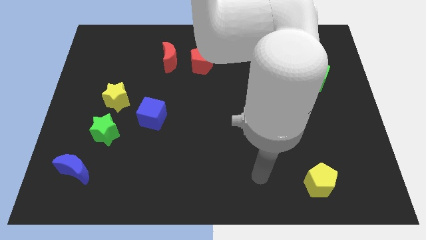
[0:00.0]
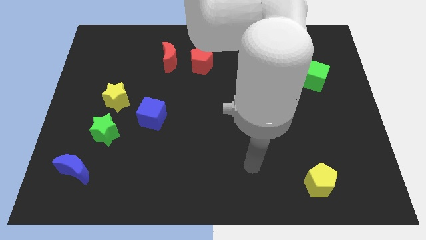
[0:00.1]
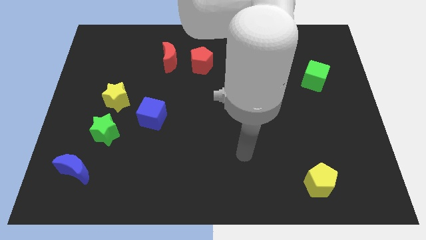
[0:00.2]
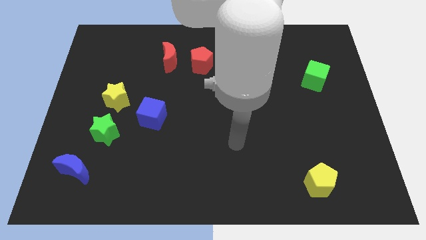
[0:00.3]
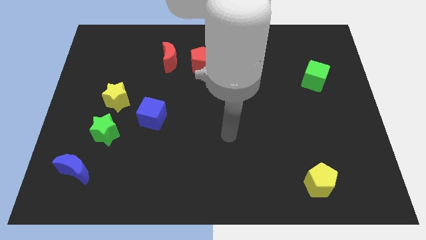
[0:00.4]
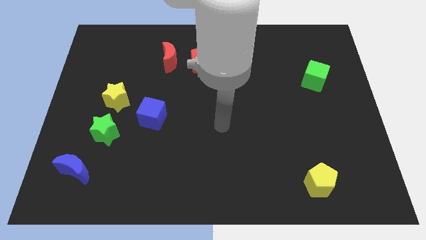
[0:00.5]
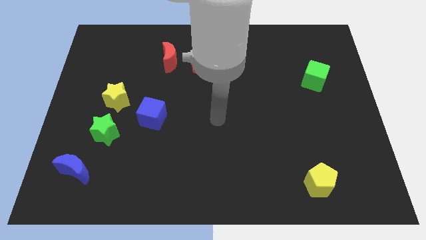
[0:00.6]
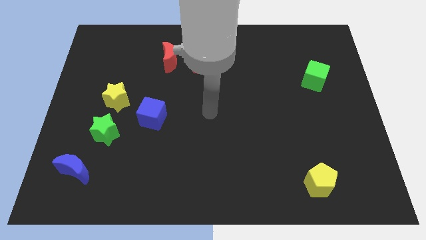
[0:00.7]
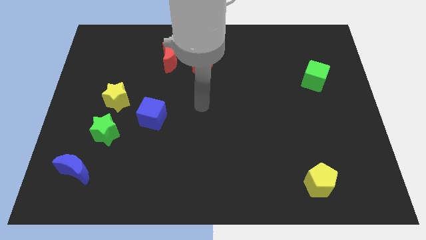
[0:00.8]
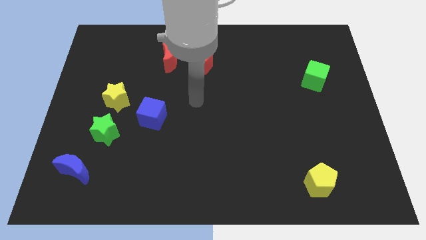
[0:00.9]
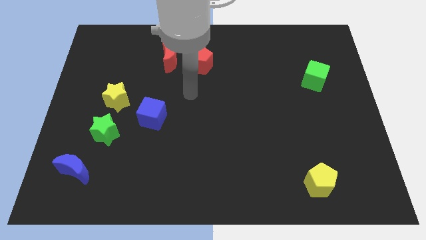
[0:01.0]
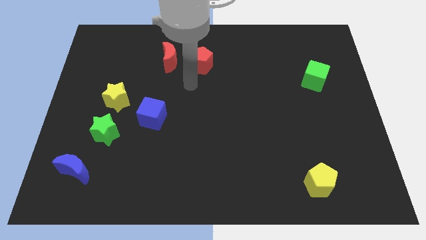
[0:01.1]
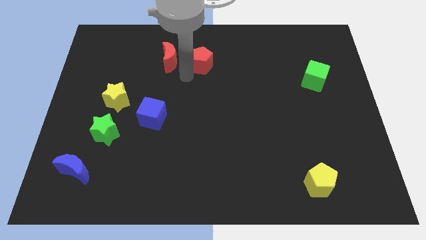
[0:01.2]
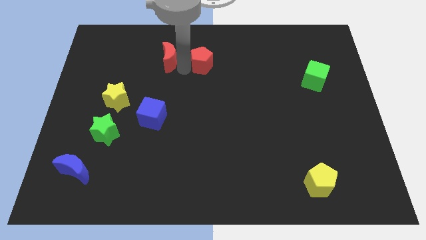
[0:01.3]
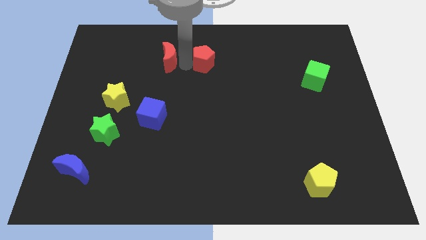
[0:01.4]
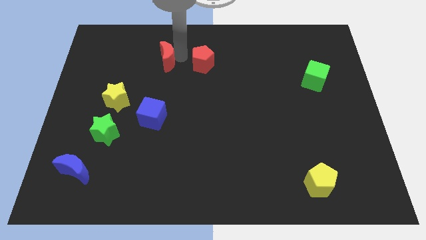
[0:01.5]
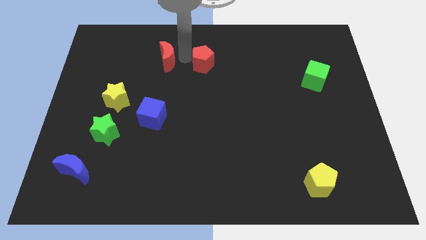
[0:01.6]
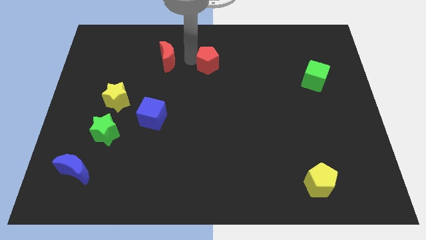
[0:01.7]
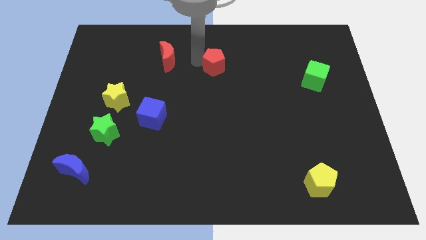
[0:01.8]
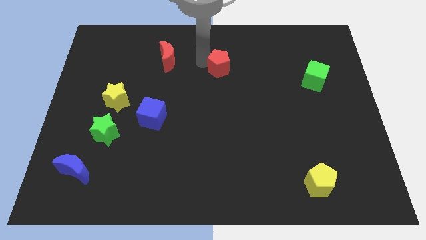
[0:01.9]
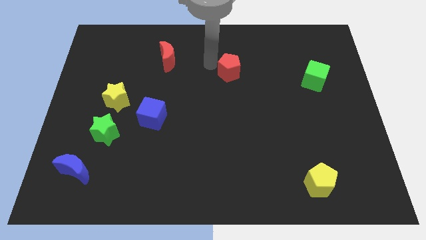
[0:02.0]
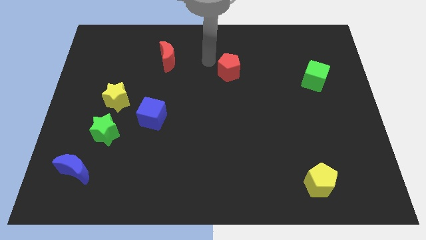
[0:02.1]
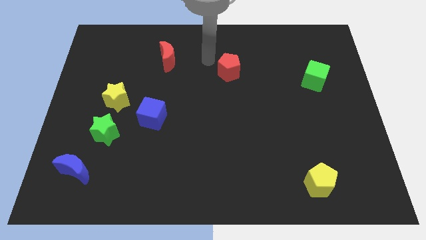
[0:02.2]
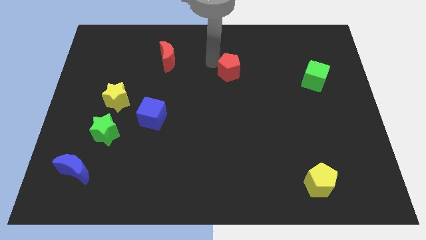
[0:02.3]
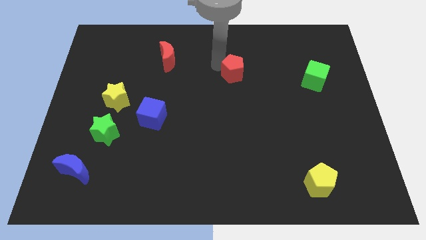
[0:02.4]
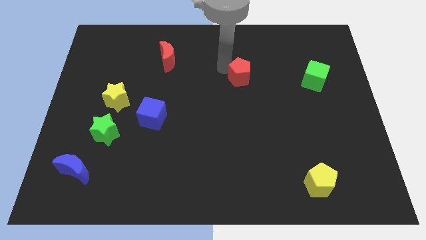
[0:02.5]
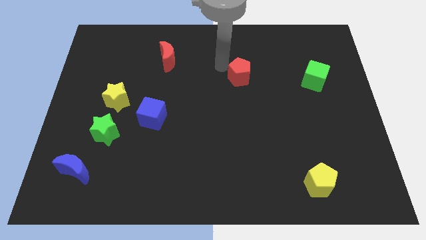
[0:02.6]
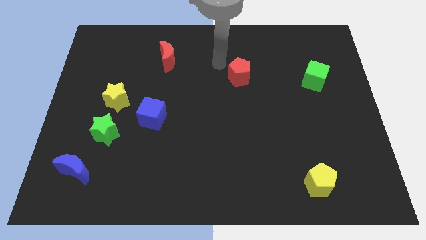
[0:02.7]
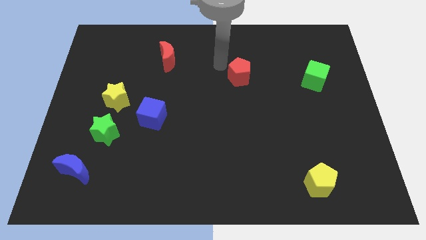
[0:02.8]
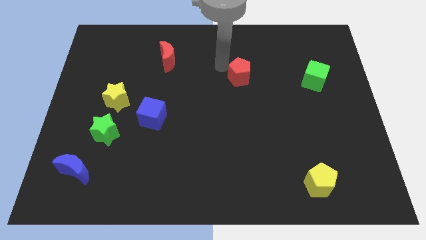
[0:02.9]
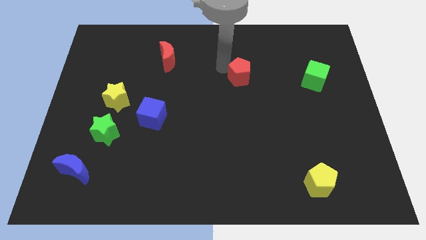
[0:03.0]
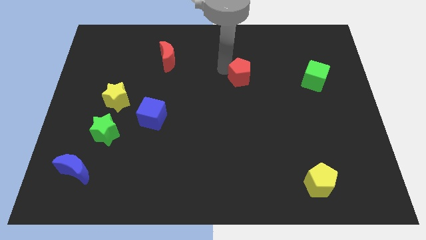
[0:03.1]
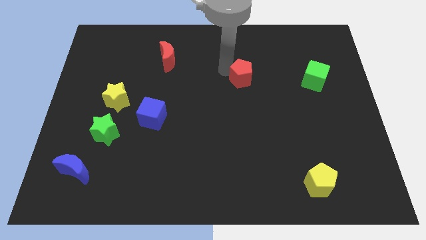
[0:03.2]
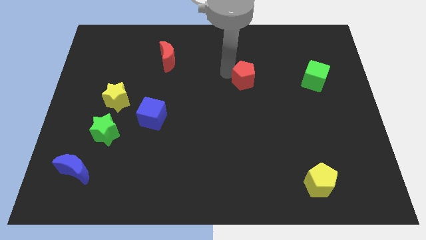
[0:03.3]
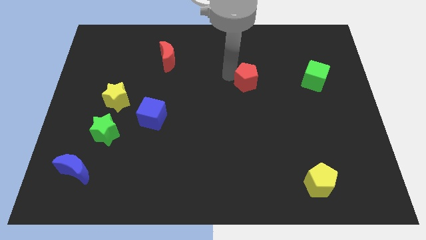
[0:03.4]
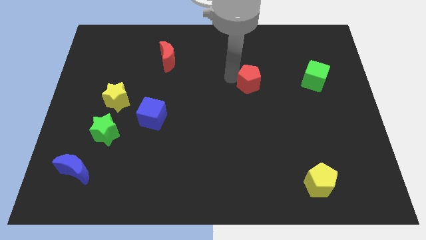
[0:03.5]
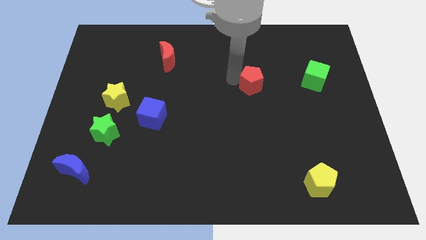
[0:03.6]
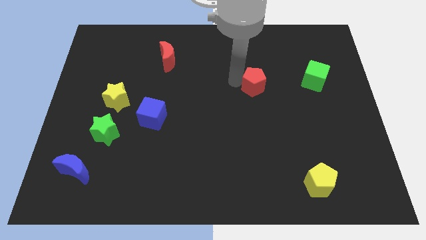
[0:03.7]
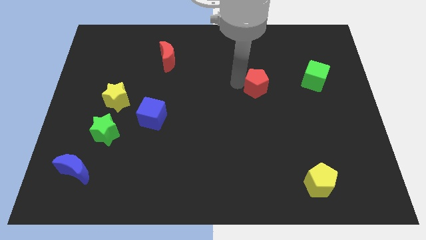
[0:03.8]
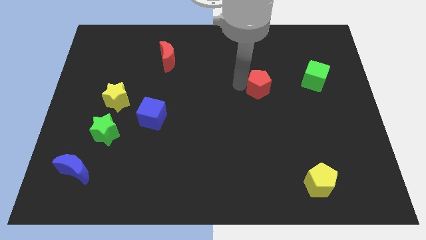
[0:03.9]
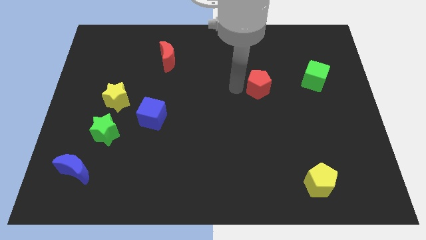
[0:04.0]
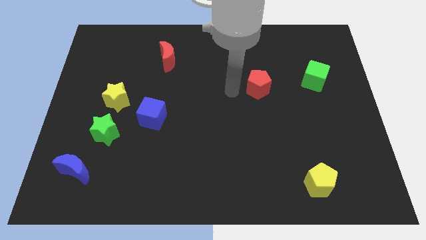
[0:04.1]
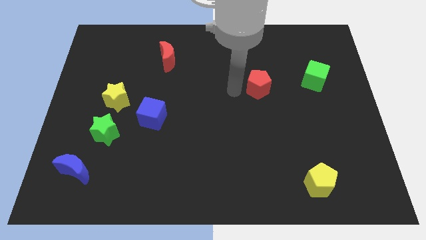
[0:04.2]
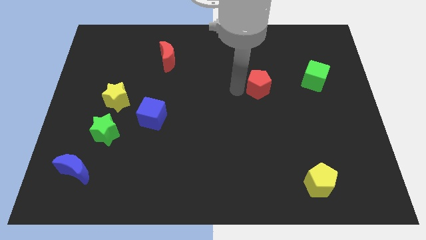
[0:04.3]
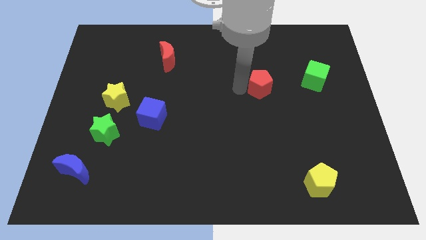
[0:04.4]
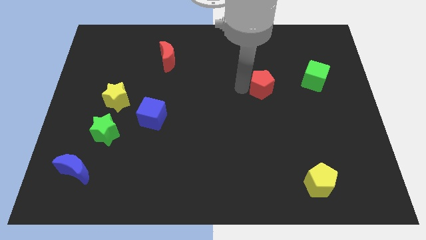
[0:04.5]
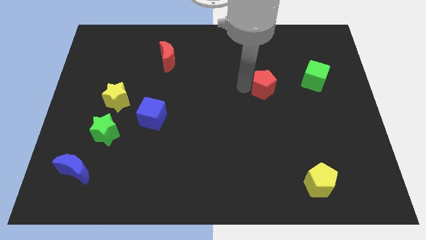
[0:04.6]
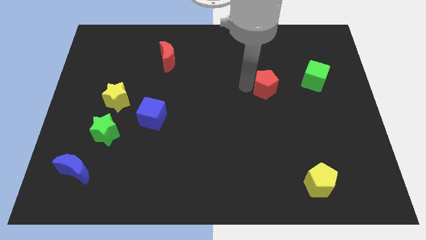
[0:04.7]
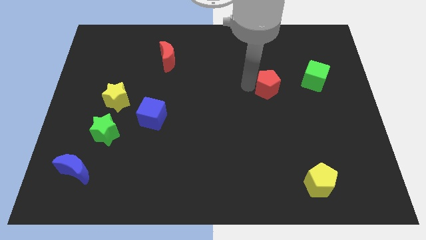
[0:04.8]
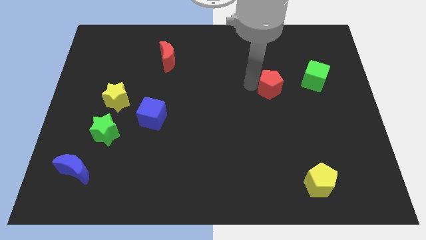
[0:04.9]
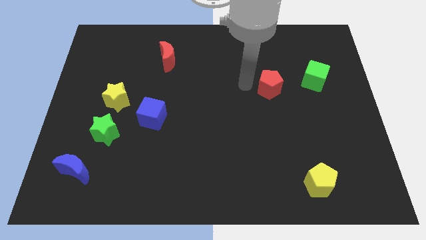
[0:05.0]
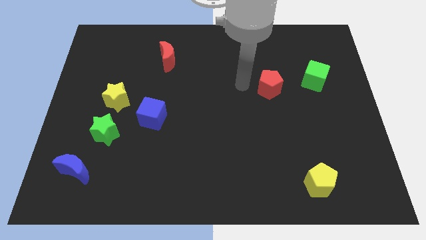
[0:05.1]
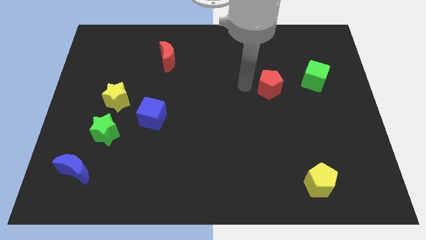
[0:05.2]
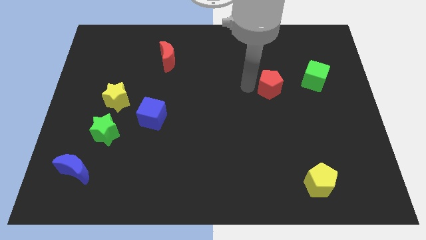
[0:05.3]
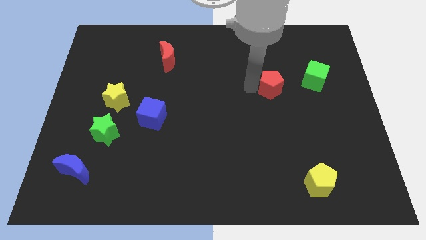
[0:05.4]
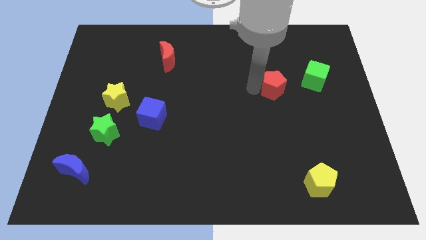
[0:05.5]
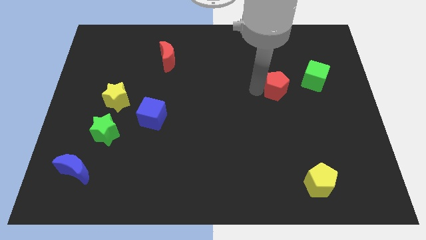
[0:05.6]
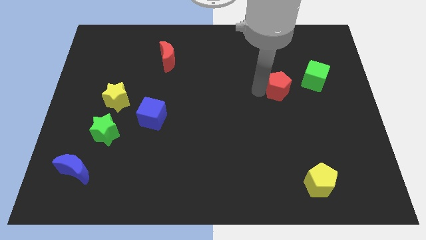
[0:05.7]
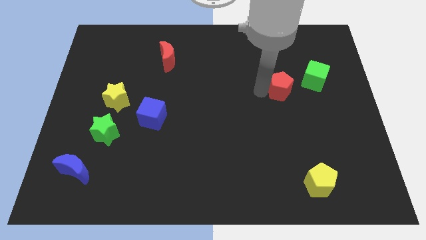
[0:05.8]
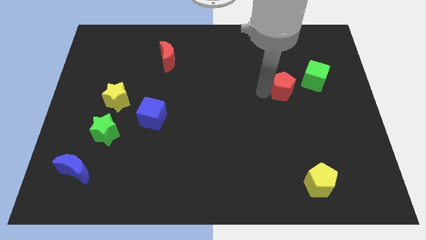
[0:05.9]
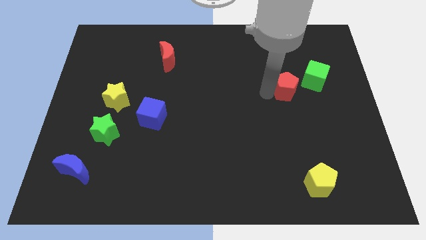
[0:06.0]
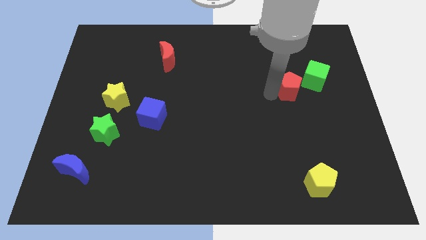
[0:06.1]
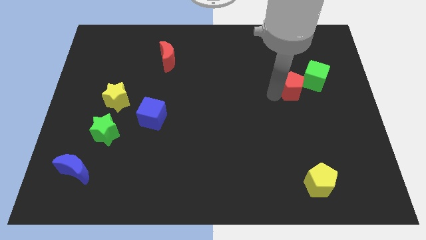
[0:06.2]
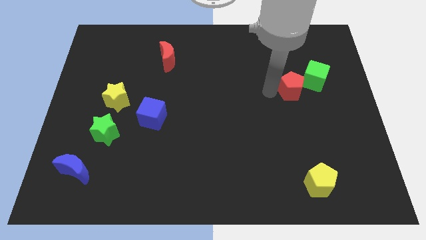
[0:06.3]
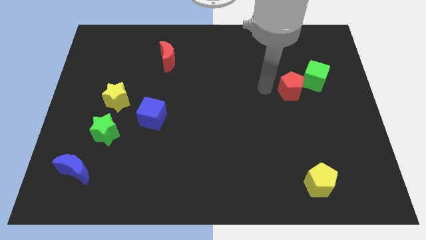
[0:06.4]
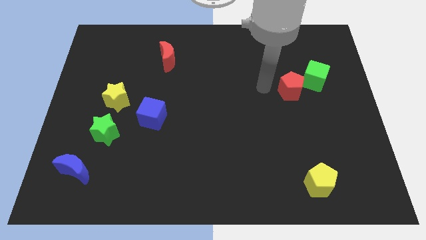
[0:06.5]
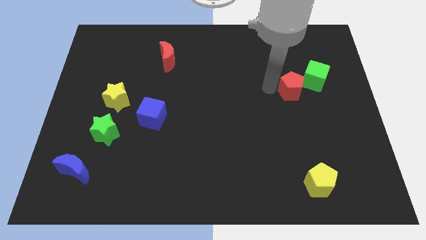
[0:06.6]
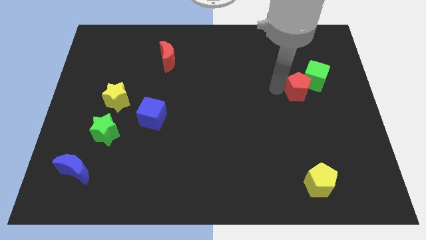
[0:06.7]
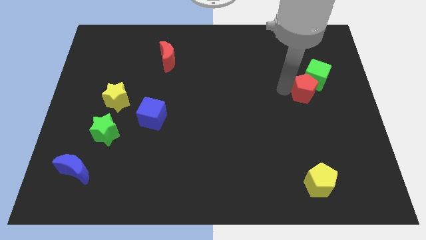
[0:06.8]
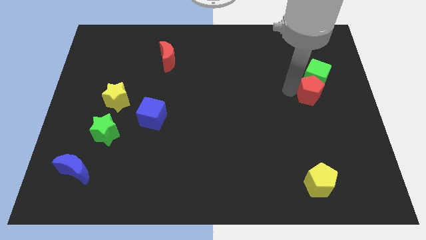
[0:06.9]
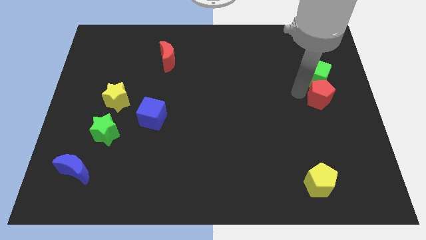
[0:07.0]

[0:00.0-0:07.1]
slide the red pentagon to the right side of the board
